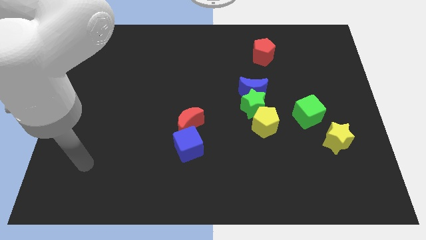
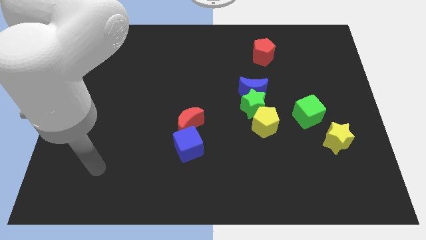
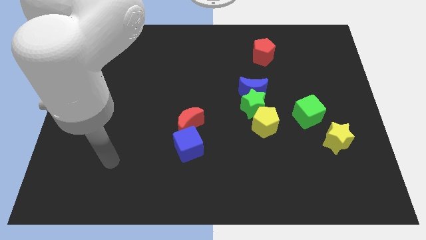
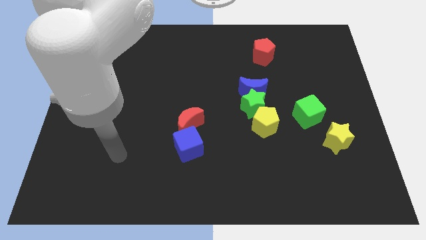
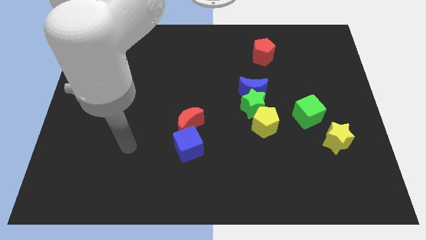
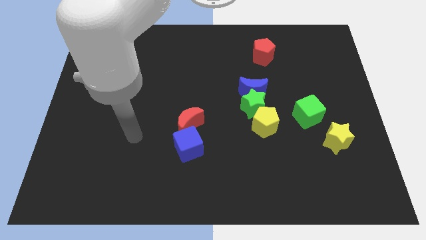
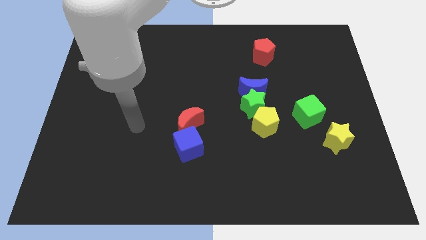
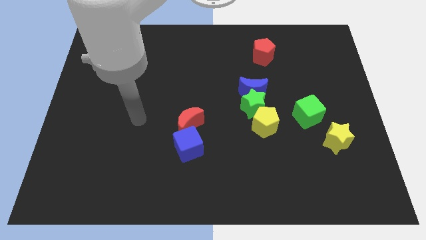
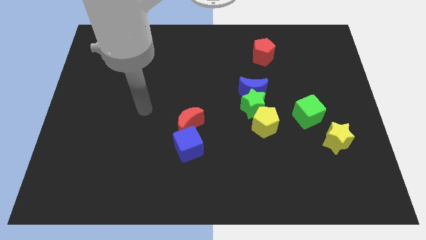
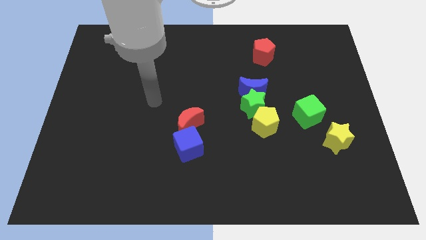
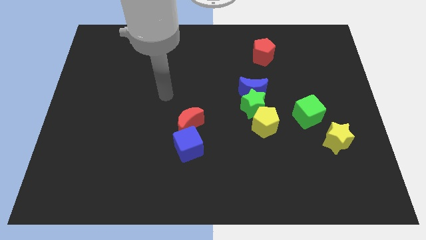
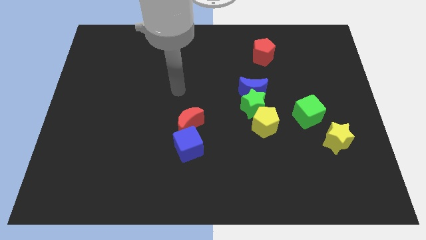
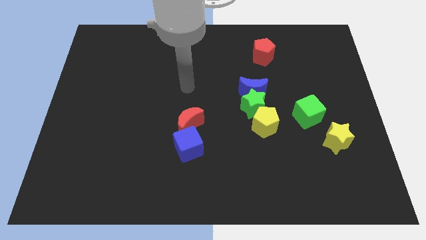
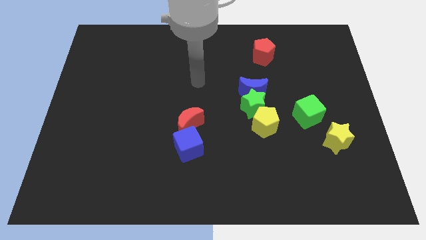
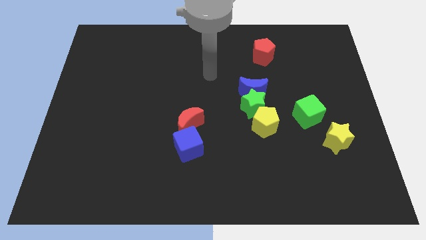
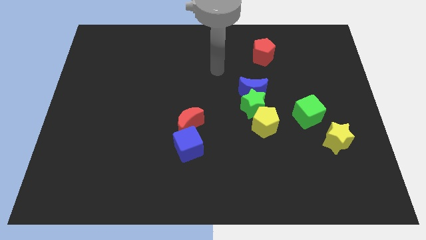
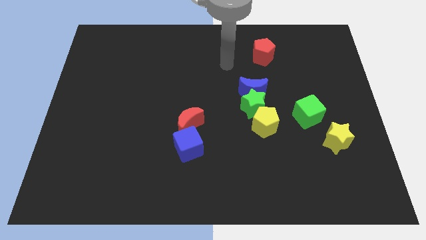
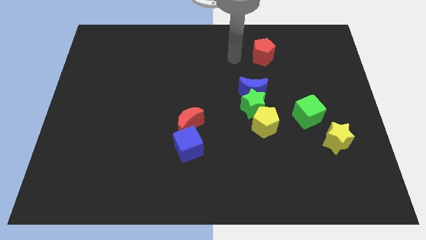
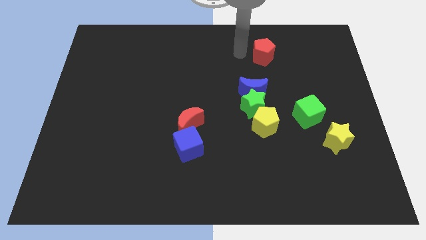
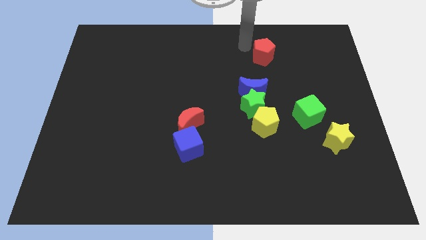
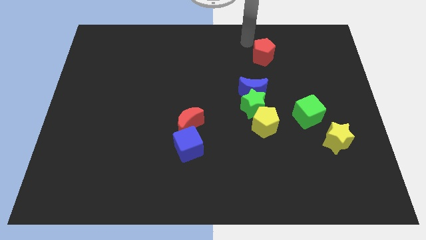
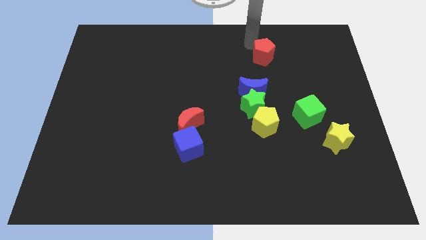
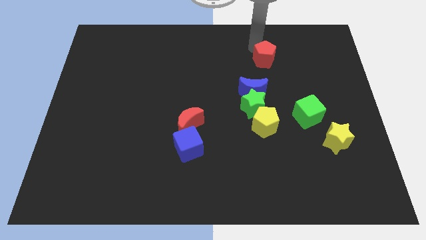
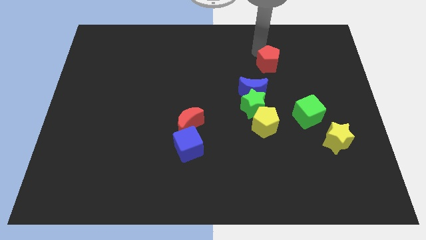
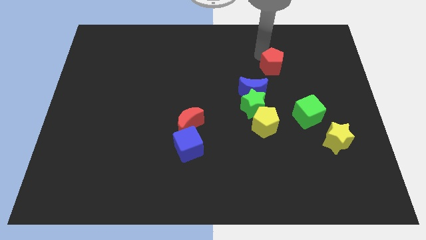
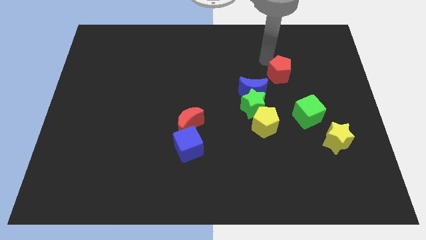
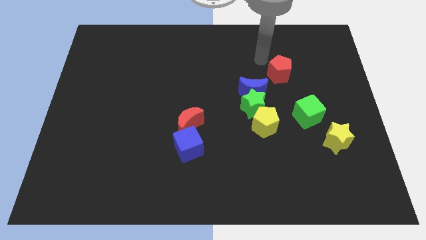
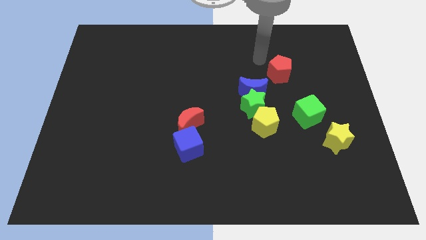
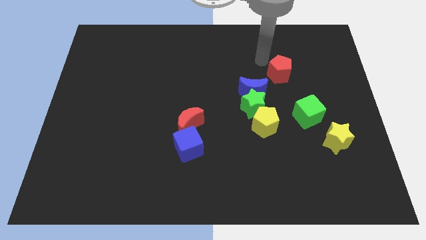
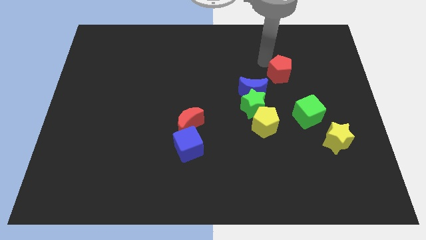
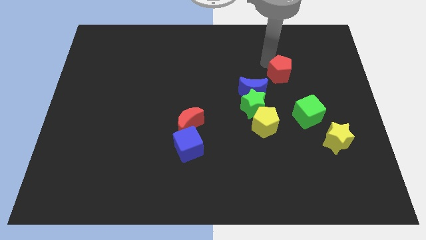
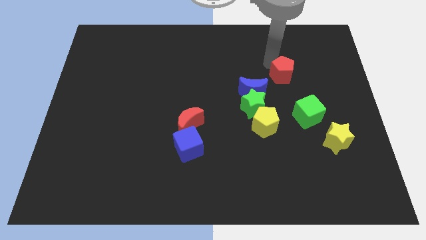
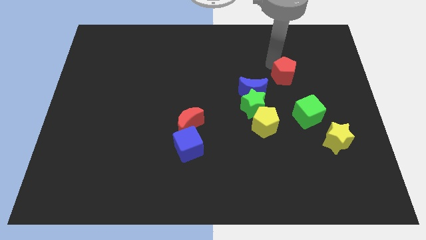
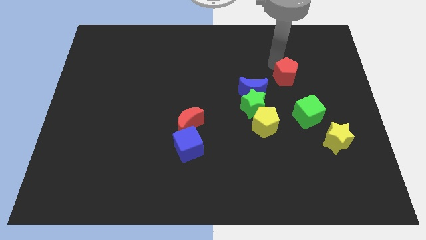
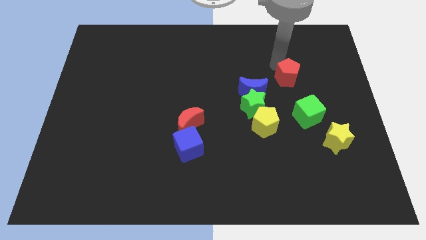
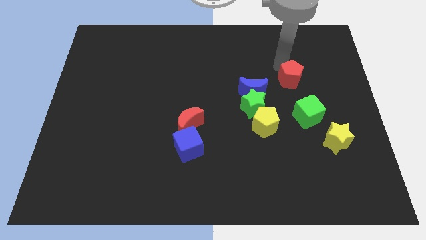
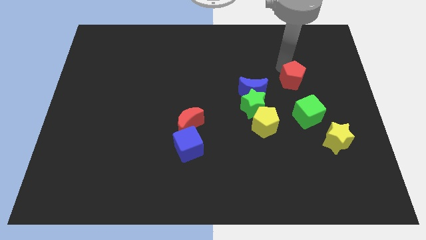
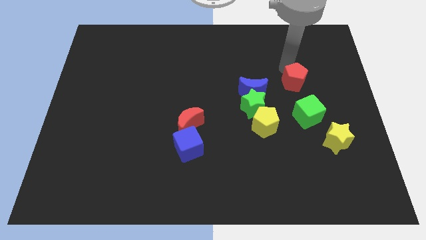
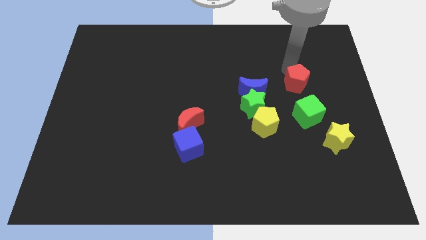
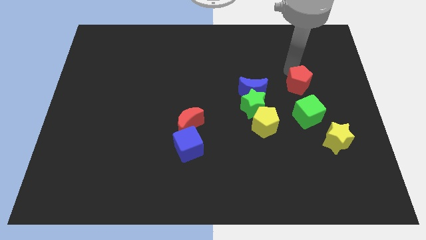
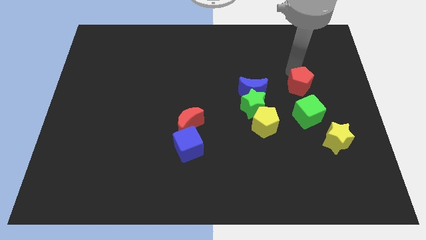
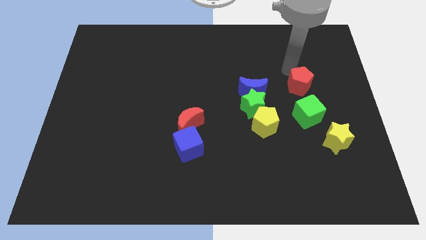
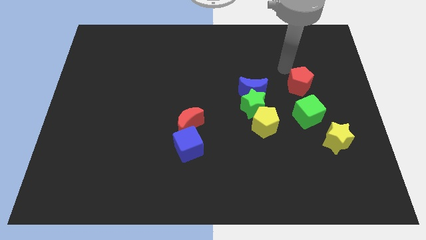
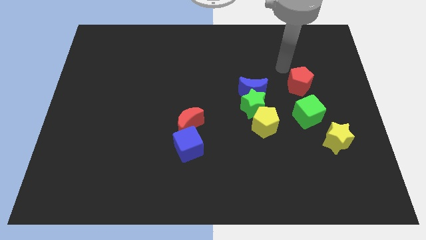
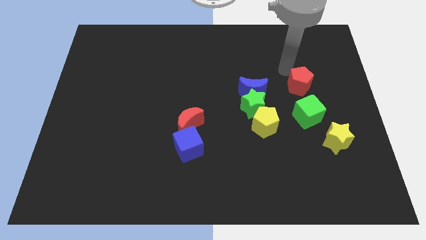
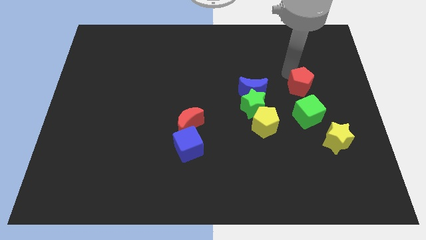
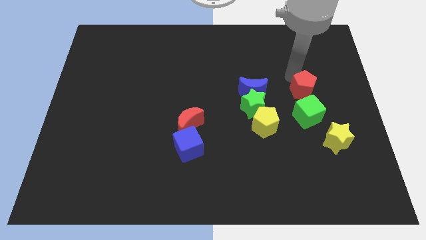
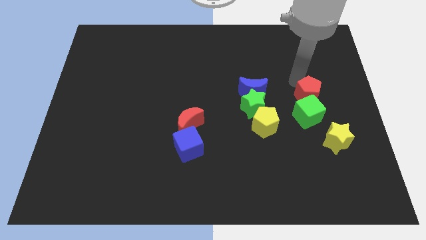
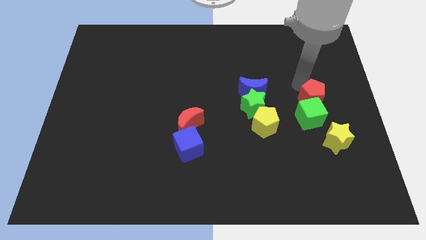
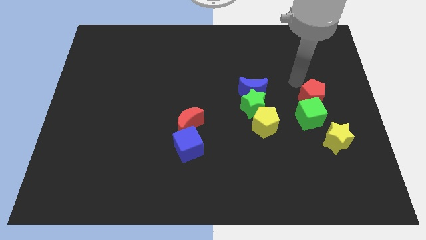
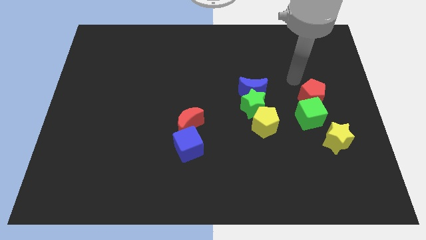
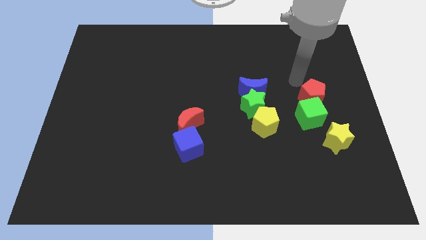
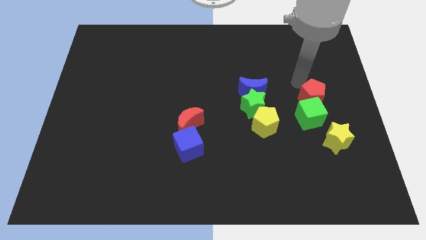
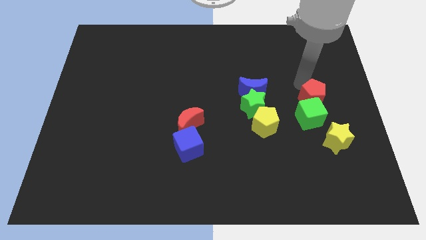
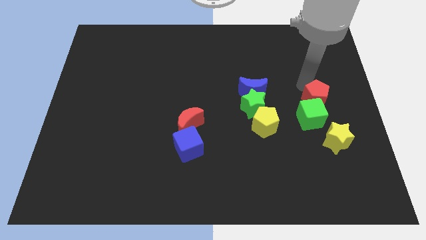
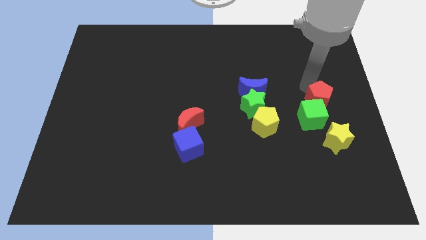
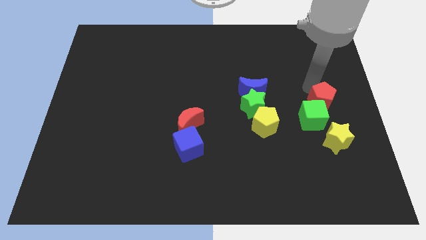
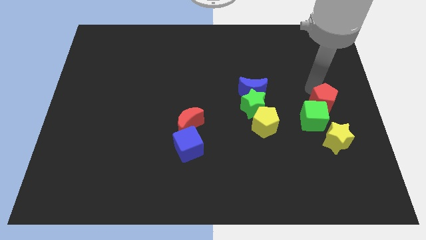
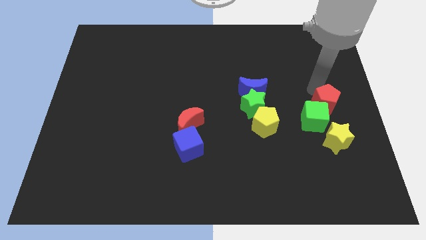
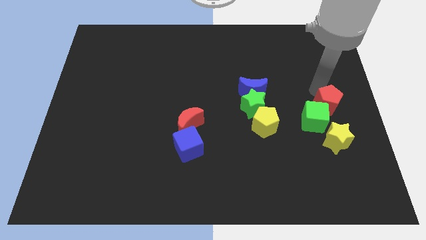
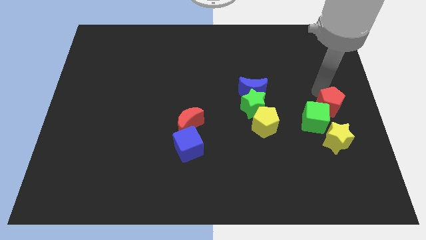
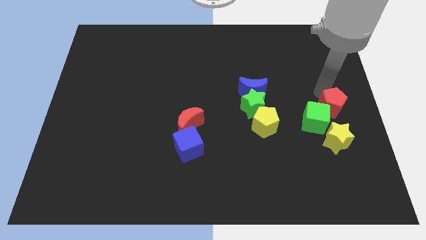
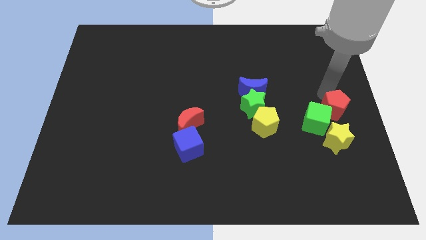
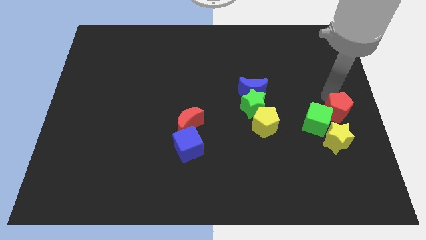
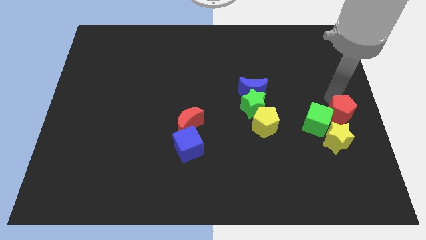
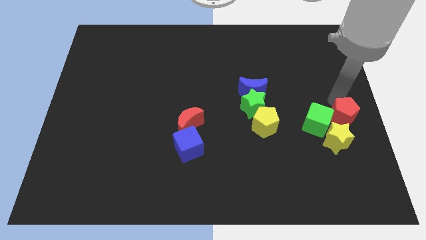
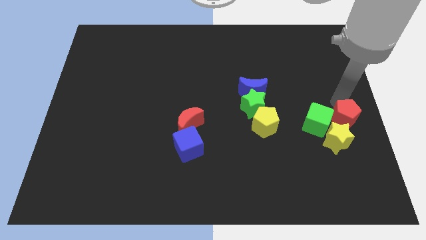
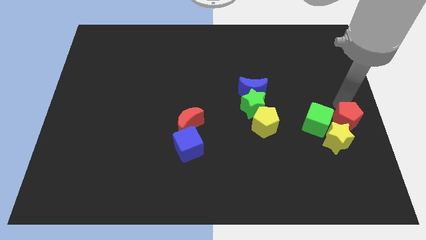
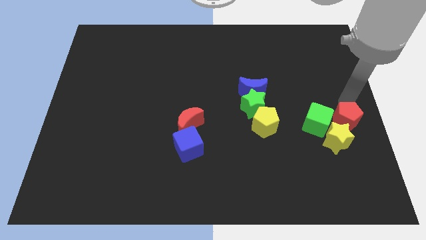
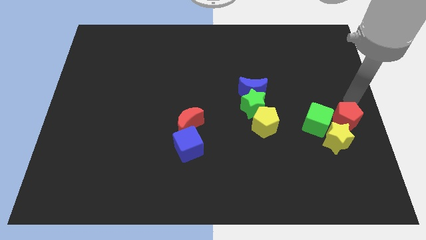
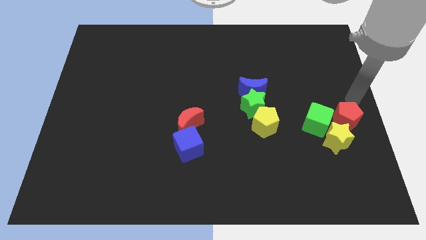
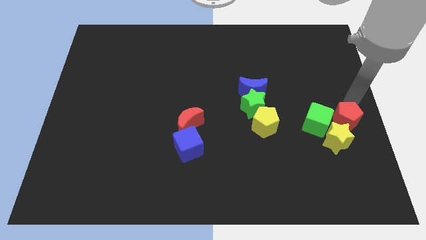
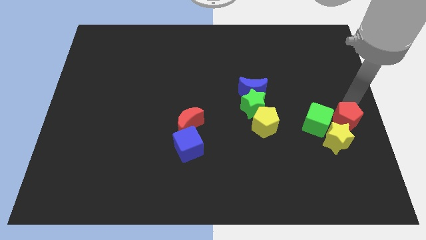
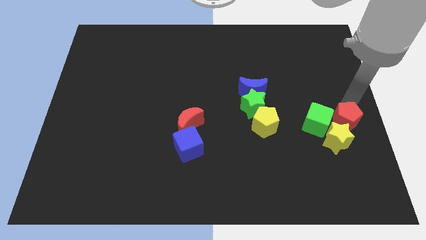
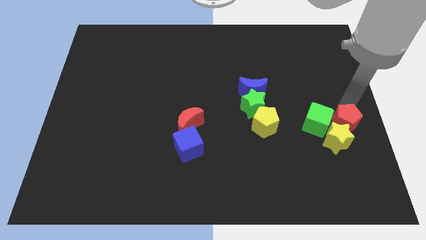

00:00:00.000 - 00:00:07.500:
push the red pentagon to the yellow star

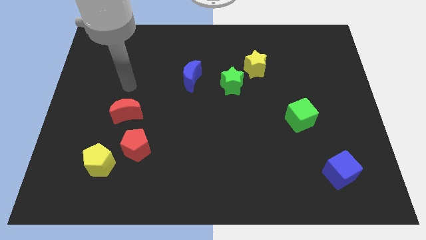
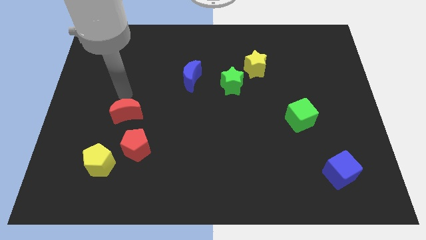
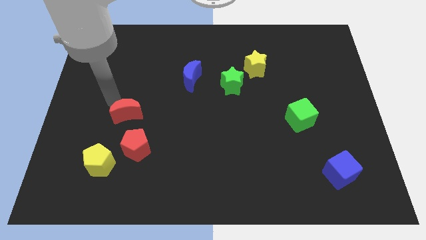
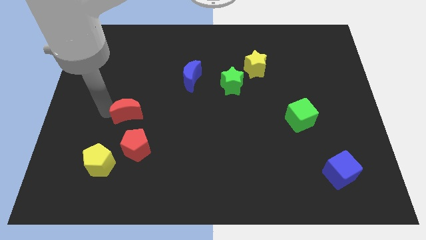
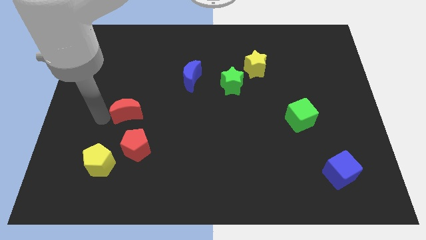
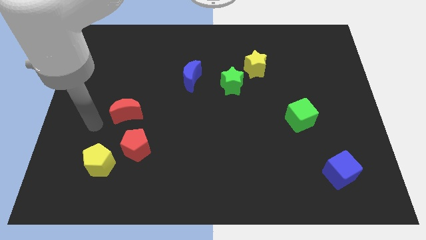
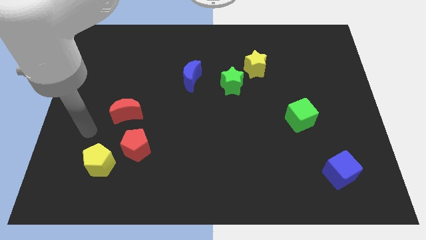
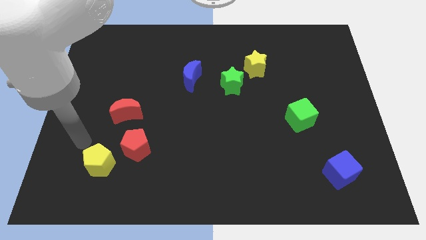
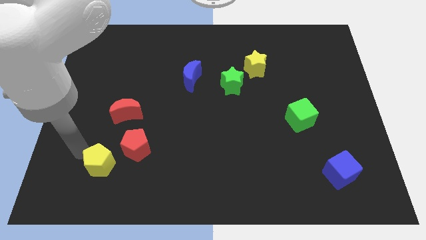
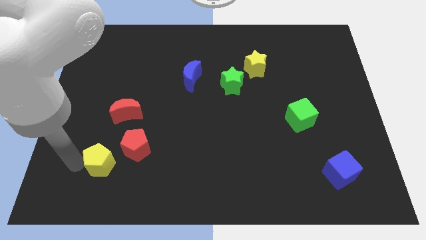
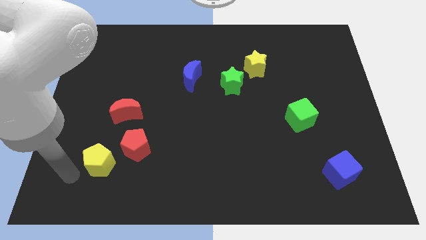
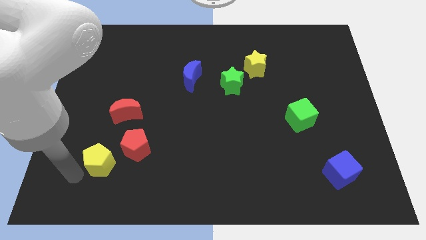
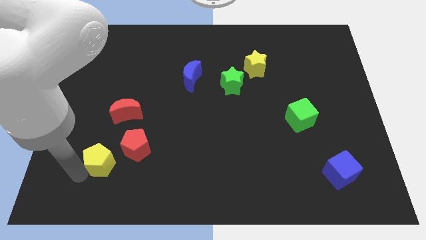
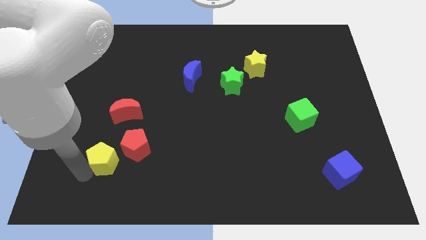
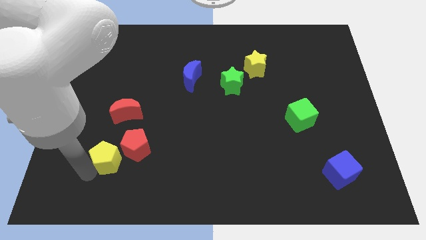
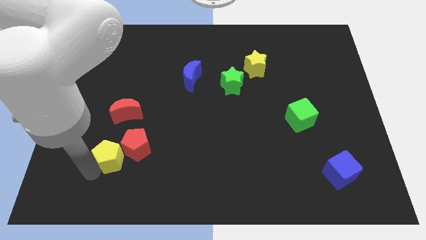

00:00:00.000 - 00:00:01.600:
put the yellow pentagon to the red pentagon
